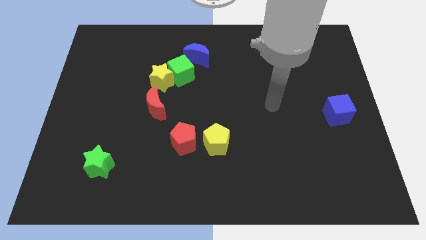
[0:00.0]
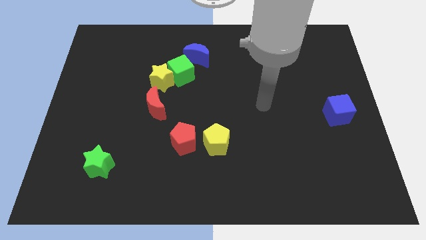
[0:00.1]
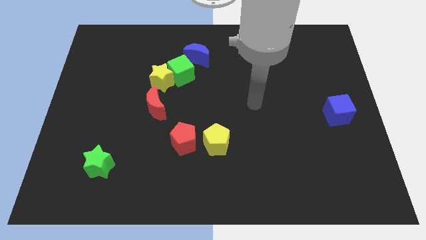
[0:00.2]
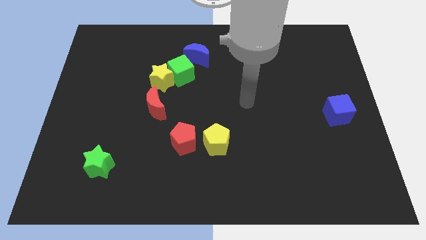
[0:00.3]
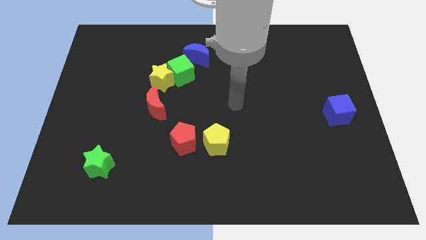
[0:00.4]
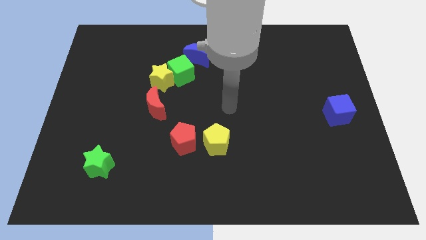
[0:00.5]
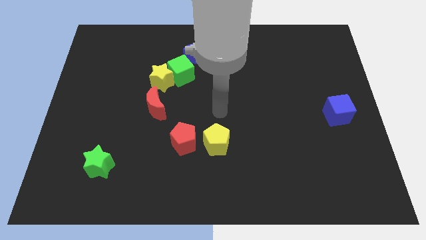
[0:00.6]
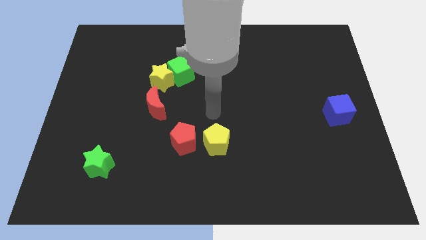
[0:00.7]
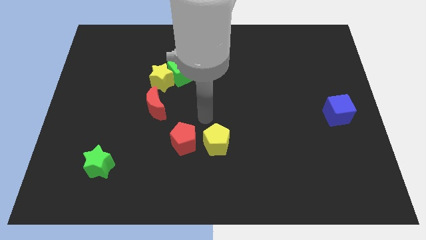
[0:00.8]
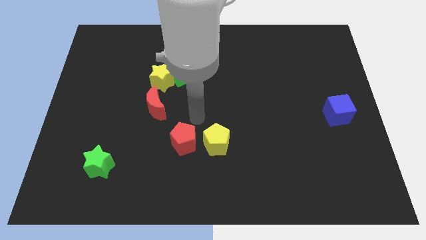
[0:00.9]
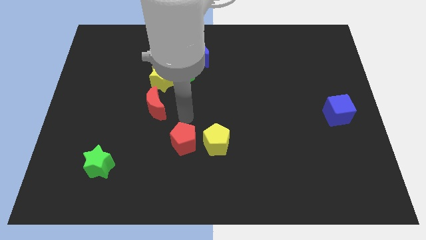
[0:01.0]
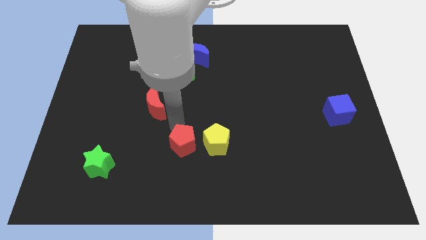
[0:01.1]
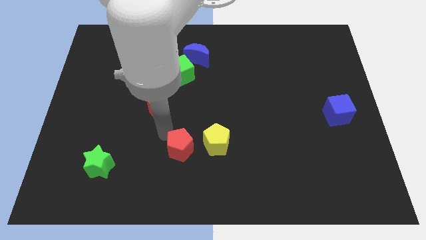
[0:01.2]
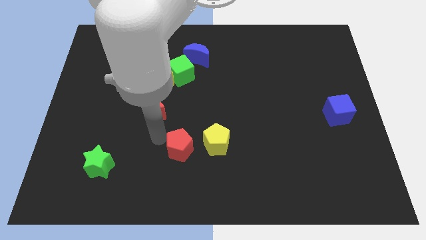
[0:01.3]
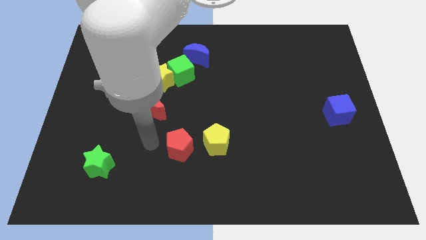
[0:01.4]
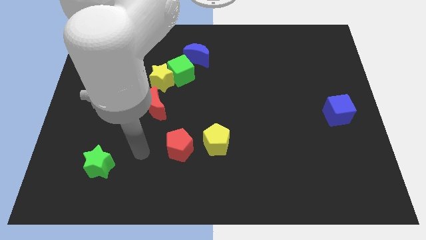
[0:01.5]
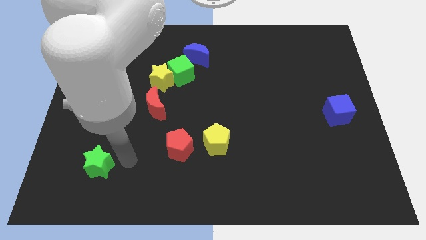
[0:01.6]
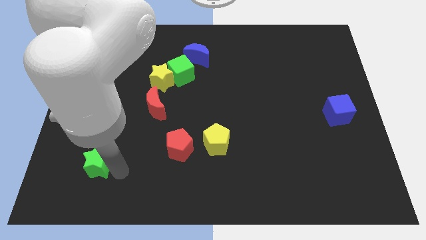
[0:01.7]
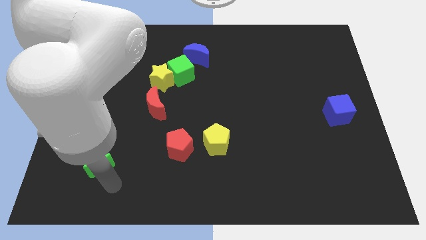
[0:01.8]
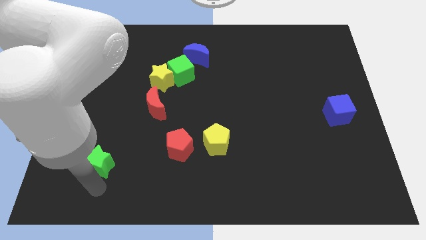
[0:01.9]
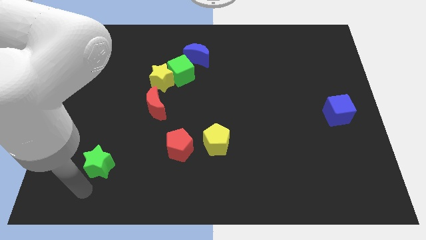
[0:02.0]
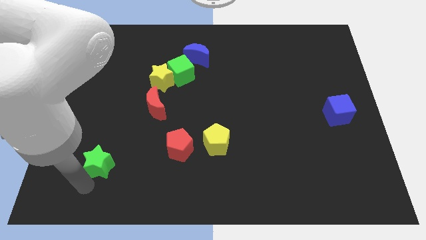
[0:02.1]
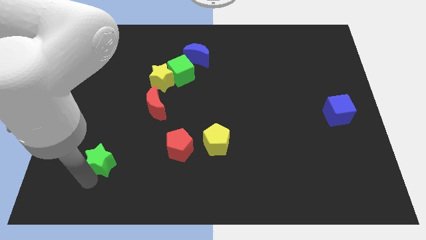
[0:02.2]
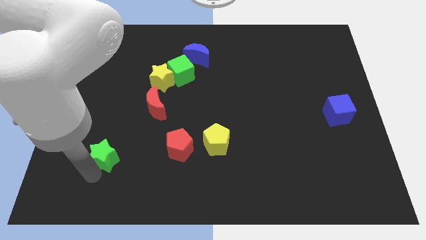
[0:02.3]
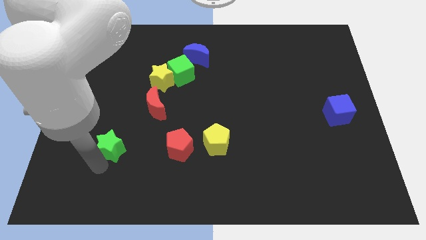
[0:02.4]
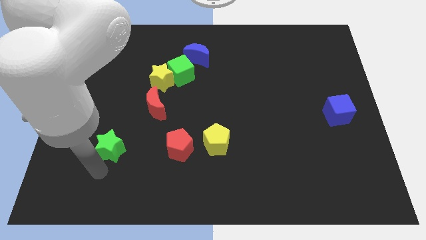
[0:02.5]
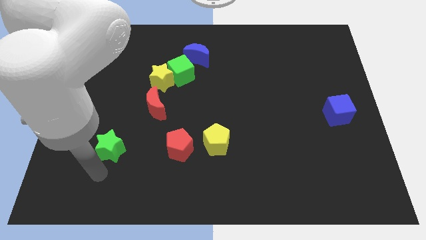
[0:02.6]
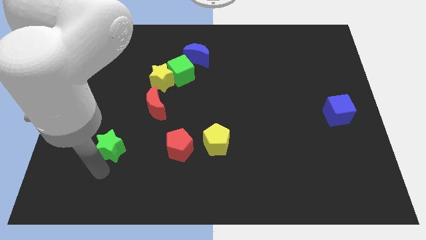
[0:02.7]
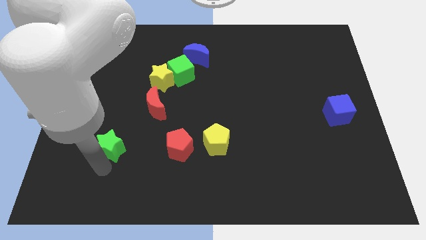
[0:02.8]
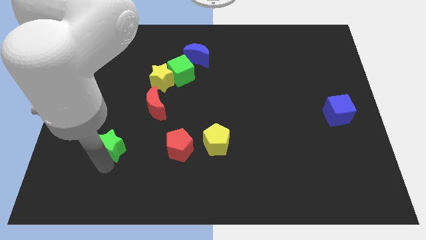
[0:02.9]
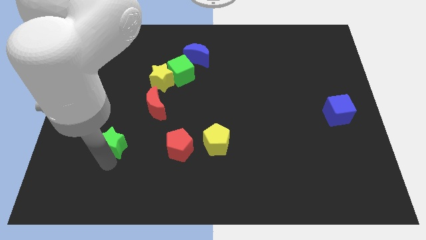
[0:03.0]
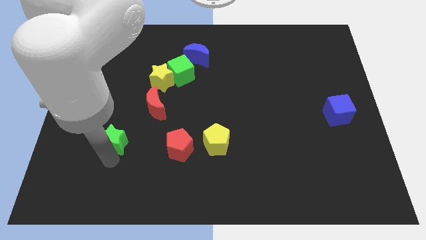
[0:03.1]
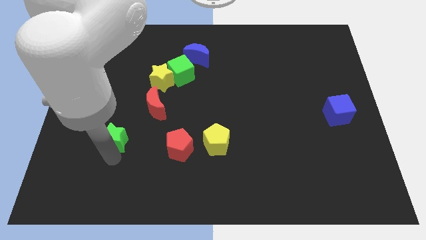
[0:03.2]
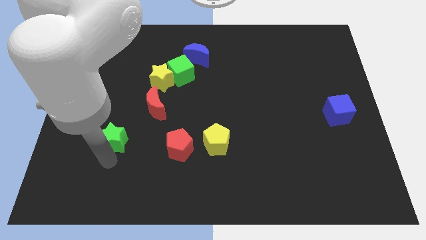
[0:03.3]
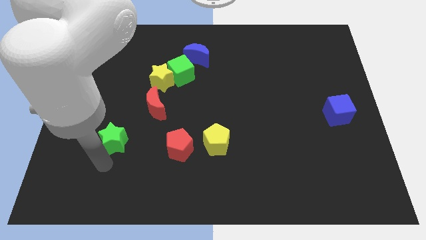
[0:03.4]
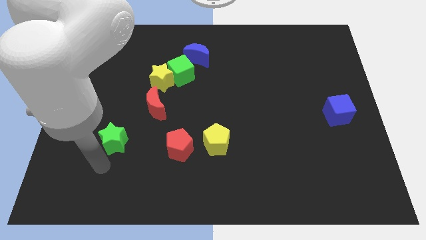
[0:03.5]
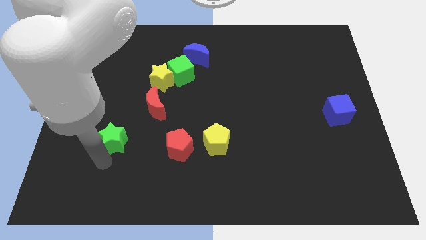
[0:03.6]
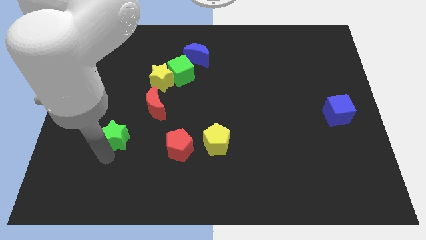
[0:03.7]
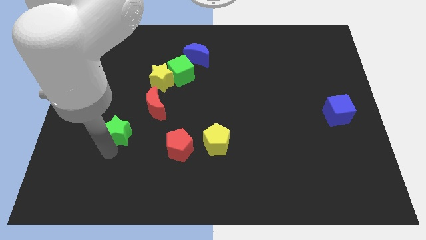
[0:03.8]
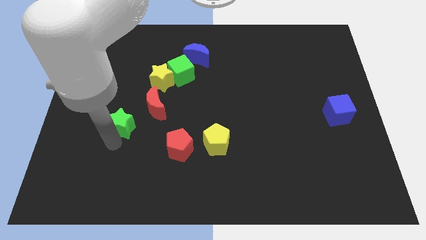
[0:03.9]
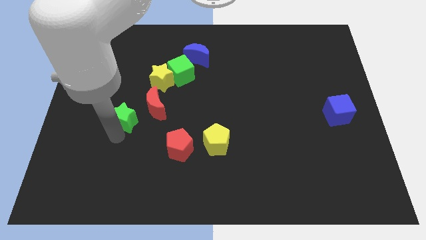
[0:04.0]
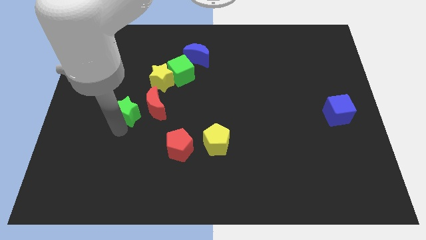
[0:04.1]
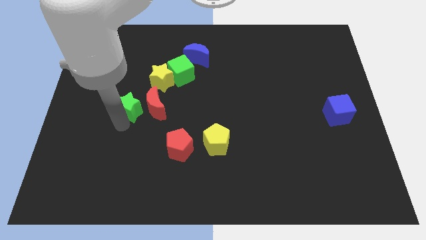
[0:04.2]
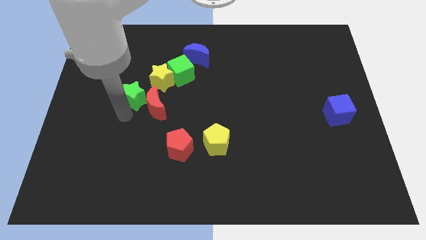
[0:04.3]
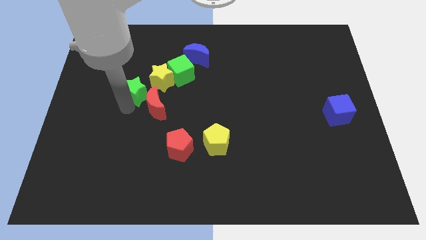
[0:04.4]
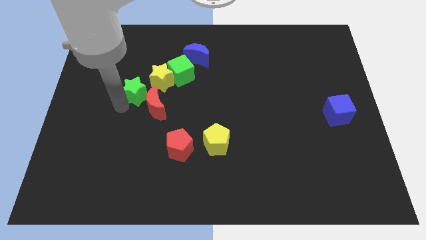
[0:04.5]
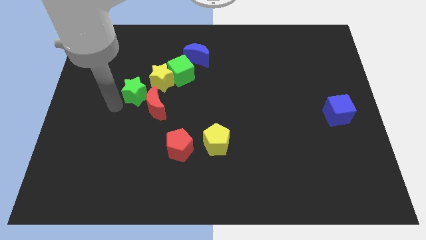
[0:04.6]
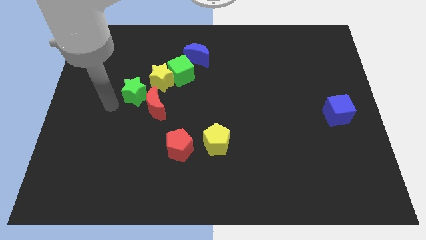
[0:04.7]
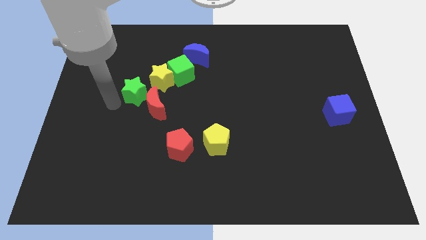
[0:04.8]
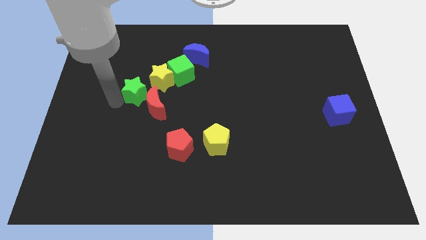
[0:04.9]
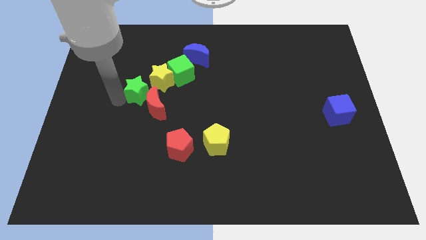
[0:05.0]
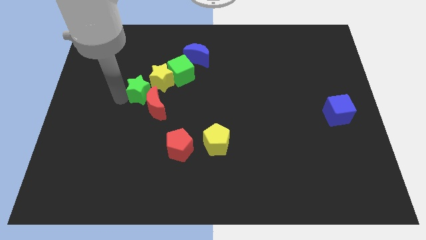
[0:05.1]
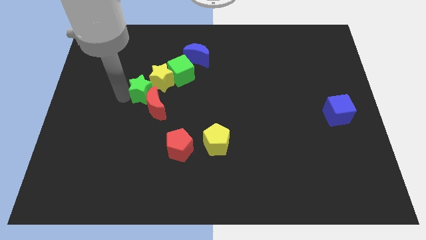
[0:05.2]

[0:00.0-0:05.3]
slide the green star to the yellow star

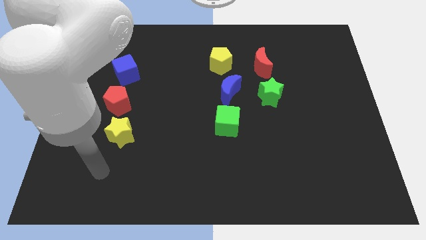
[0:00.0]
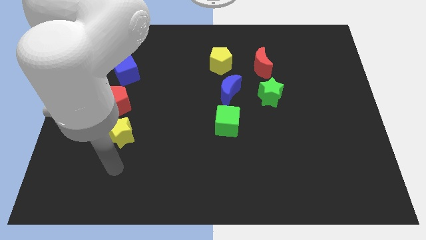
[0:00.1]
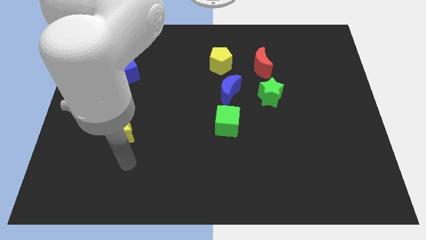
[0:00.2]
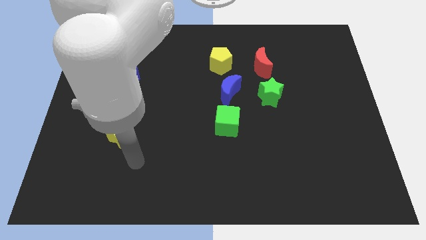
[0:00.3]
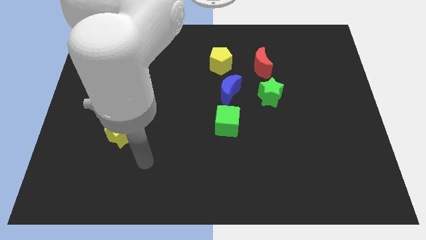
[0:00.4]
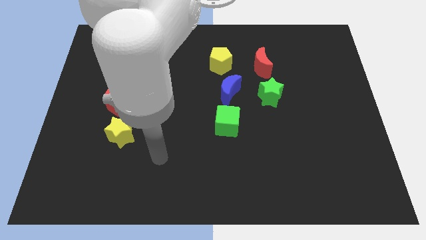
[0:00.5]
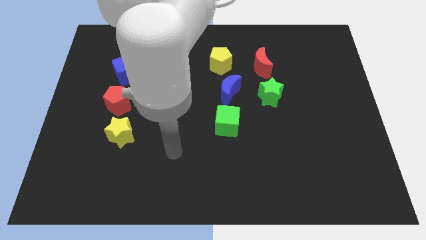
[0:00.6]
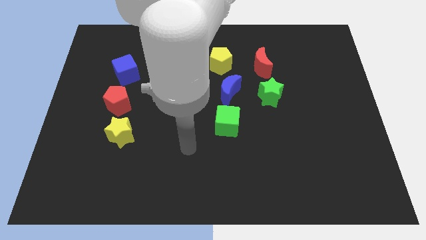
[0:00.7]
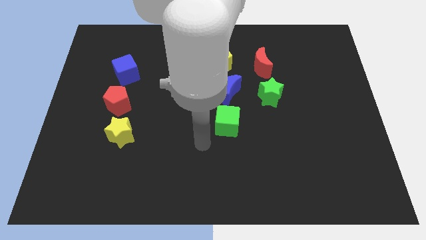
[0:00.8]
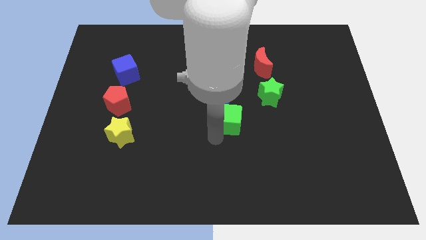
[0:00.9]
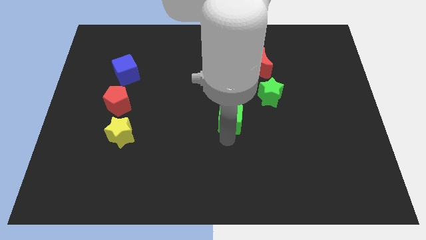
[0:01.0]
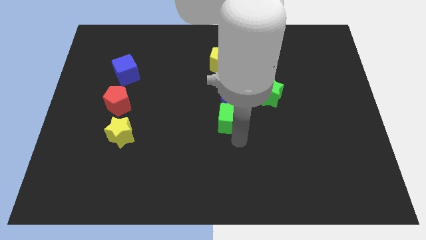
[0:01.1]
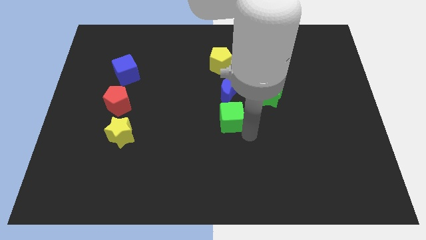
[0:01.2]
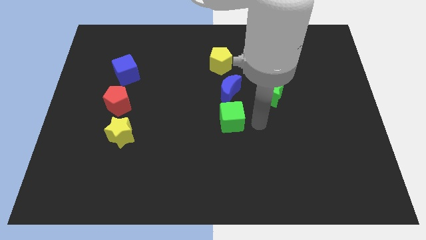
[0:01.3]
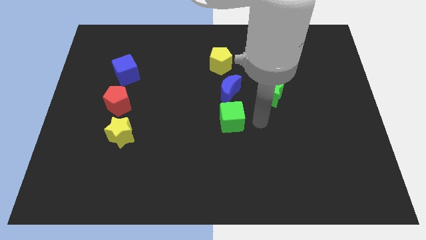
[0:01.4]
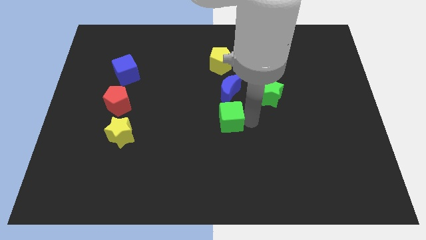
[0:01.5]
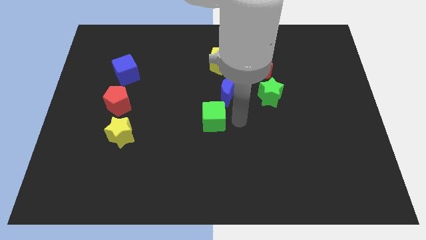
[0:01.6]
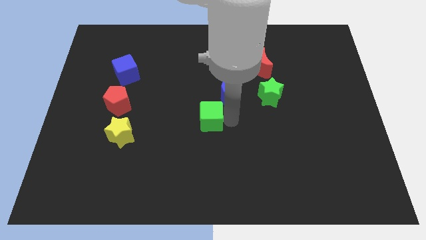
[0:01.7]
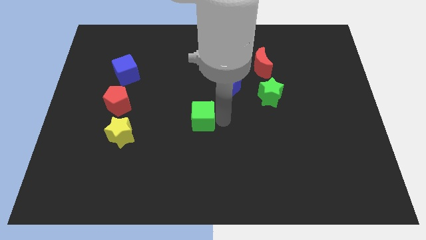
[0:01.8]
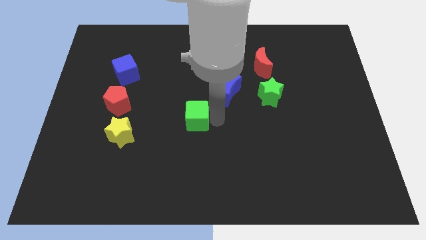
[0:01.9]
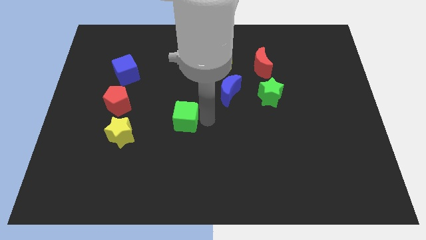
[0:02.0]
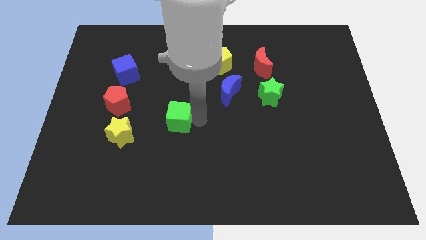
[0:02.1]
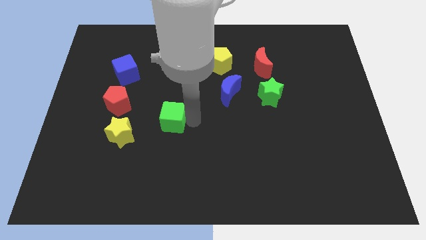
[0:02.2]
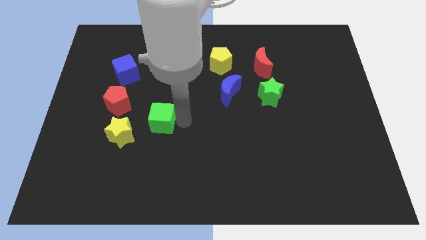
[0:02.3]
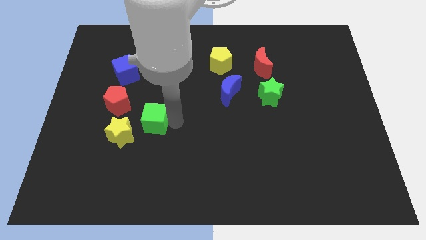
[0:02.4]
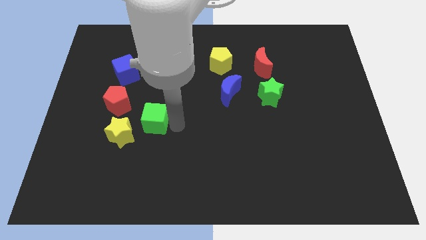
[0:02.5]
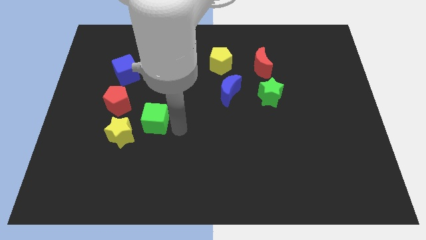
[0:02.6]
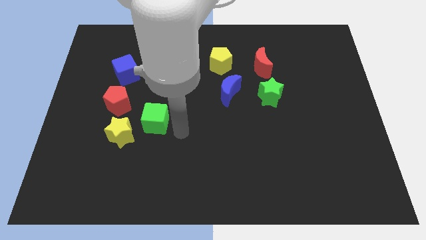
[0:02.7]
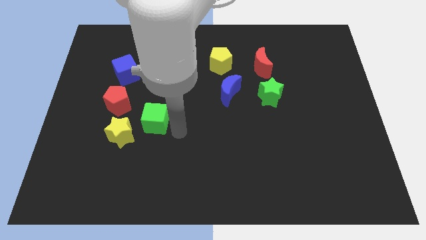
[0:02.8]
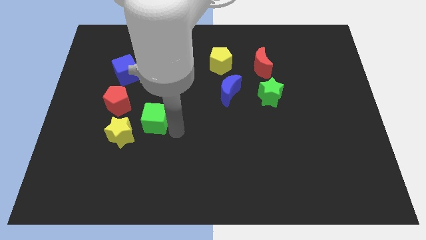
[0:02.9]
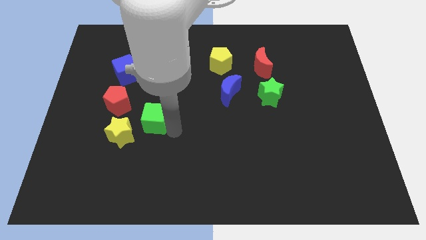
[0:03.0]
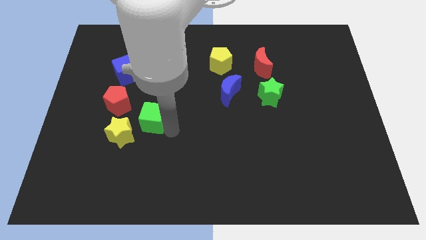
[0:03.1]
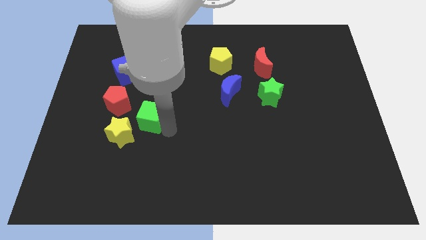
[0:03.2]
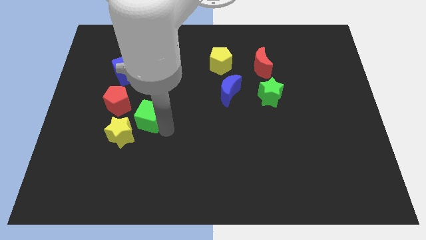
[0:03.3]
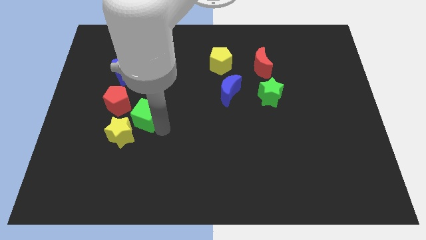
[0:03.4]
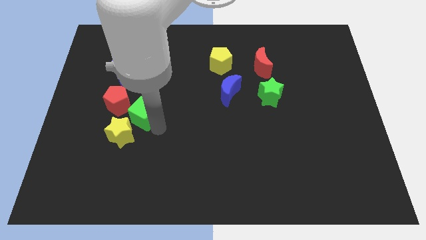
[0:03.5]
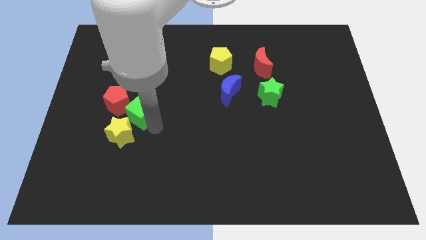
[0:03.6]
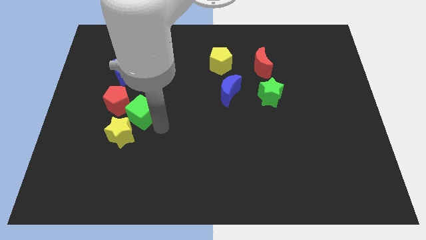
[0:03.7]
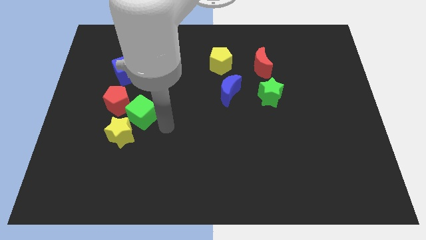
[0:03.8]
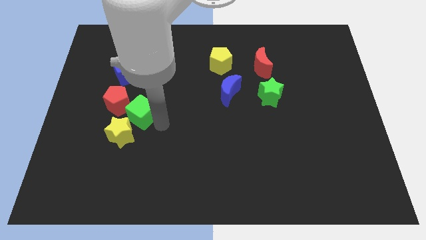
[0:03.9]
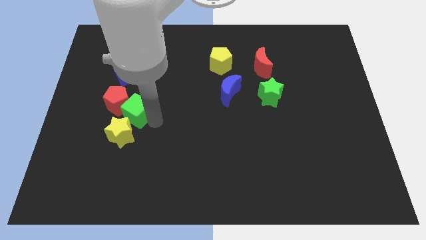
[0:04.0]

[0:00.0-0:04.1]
put the green cube towards the red pentagon
